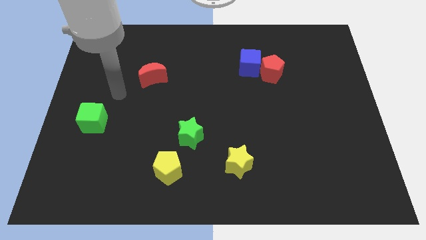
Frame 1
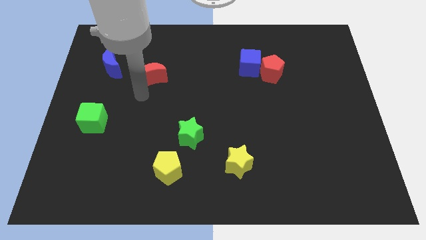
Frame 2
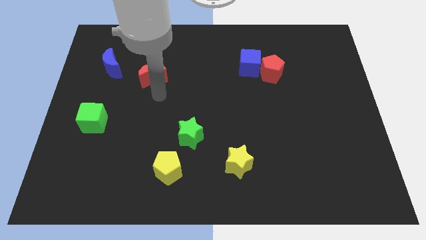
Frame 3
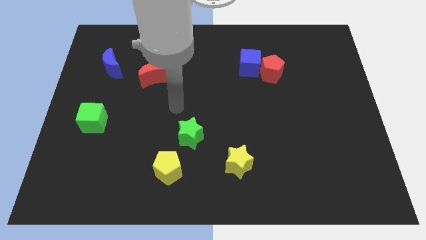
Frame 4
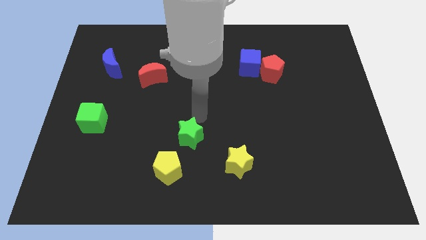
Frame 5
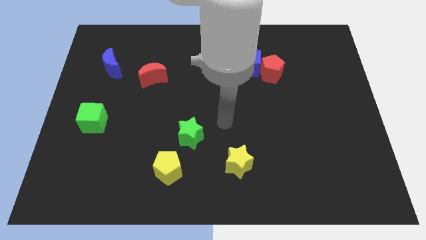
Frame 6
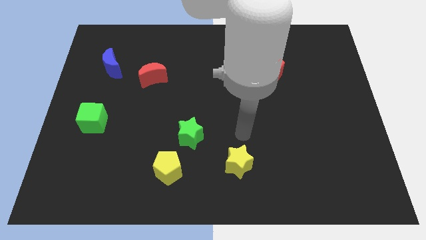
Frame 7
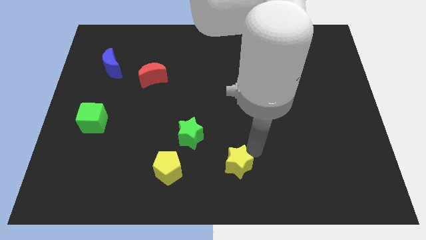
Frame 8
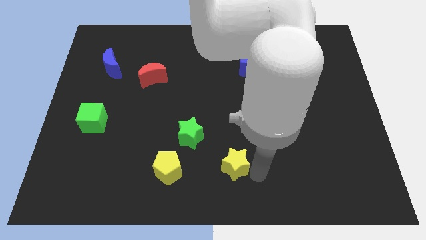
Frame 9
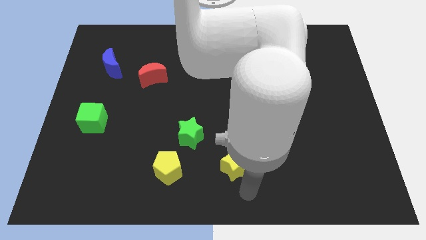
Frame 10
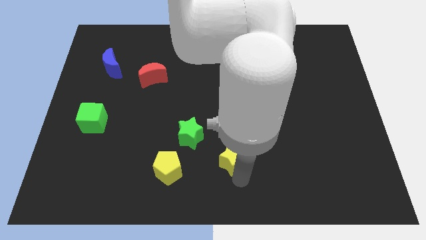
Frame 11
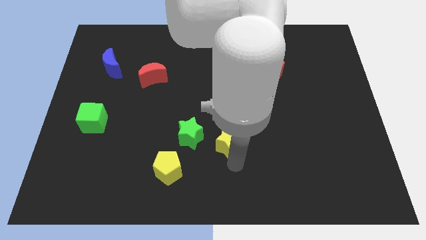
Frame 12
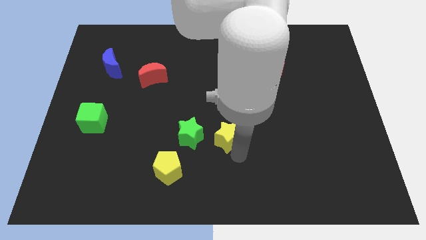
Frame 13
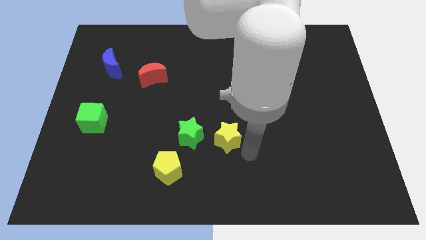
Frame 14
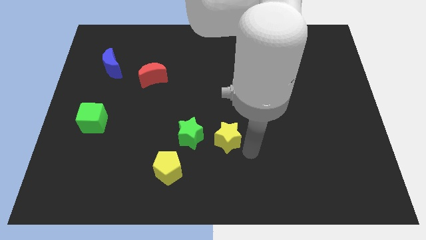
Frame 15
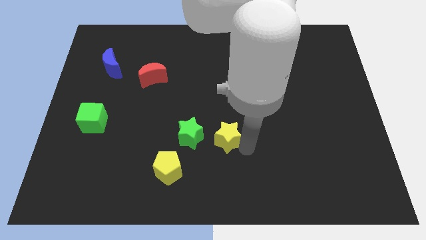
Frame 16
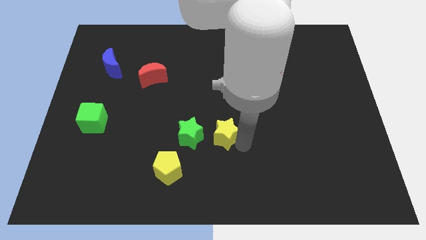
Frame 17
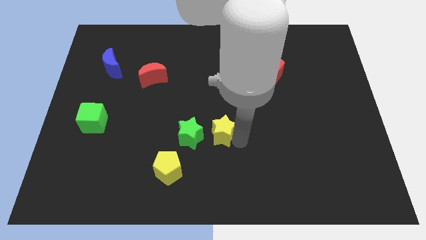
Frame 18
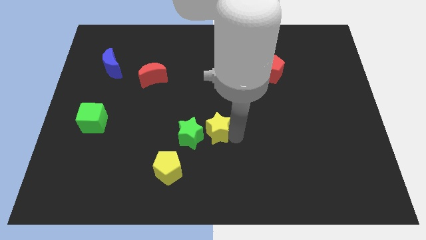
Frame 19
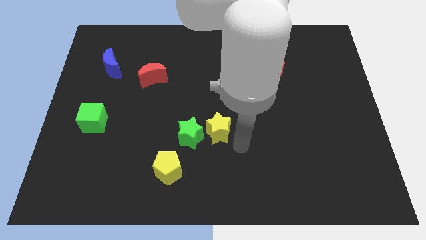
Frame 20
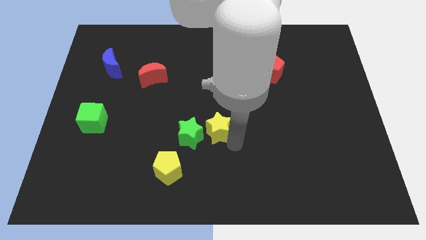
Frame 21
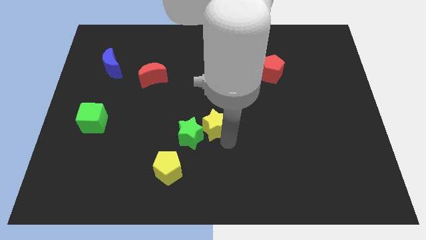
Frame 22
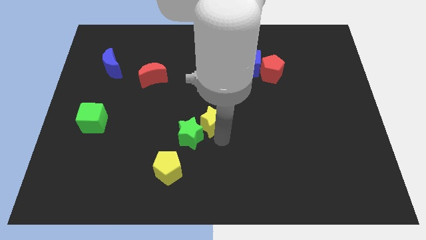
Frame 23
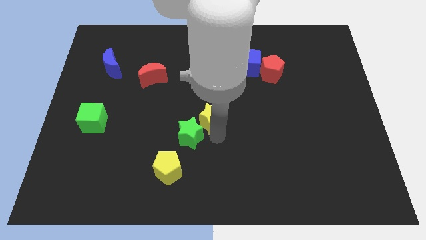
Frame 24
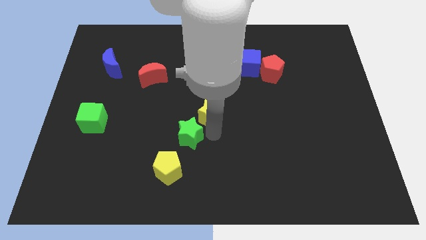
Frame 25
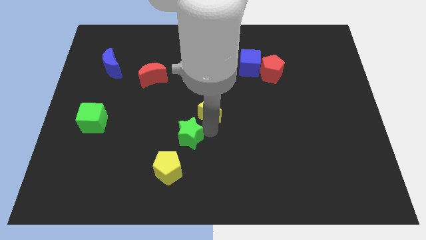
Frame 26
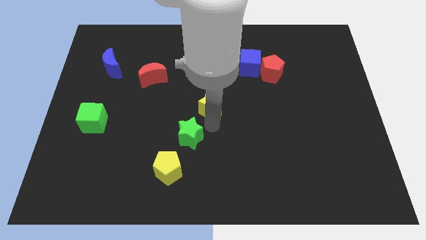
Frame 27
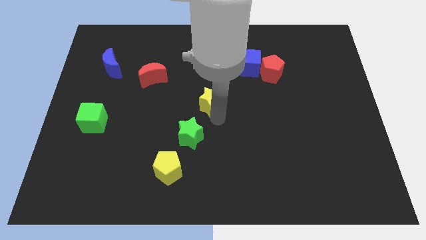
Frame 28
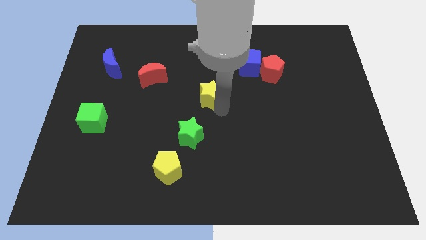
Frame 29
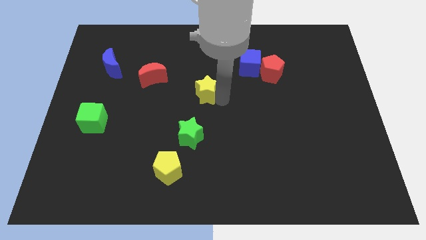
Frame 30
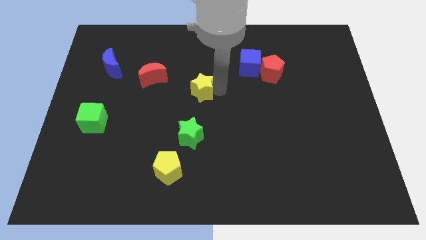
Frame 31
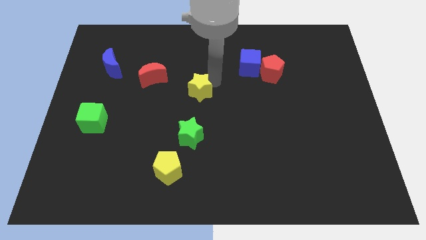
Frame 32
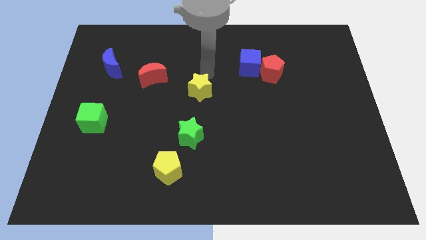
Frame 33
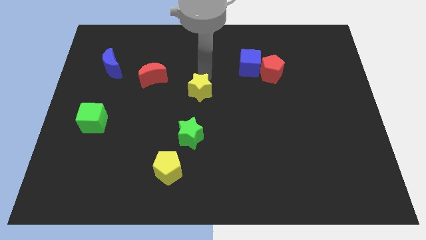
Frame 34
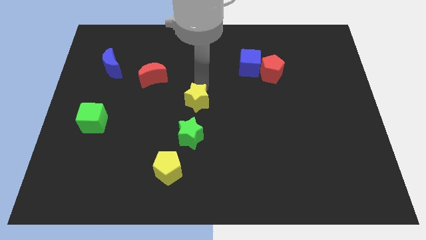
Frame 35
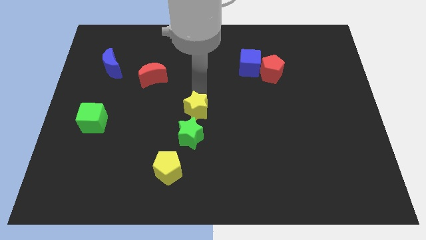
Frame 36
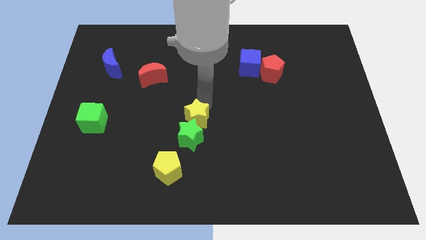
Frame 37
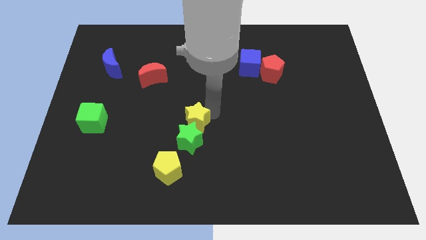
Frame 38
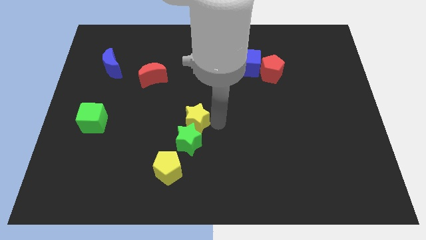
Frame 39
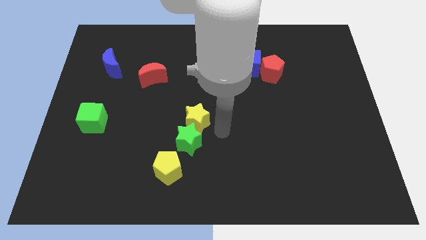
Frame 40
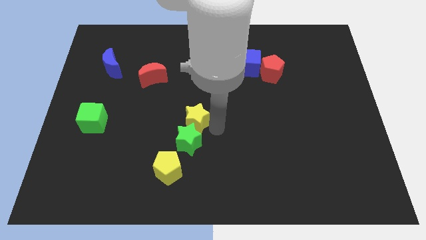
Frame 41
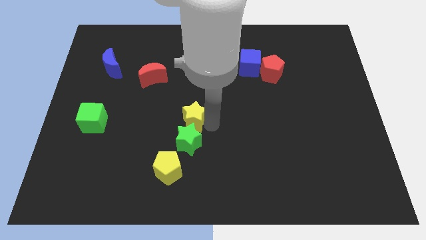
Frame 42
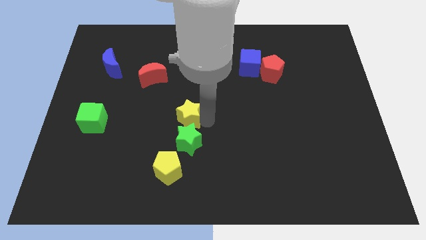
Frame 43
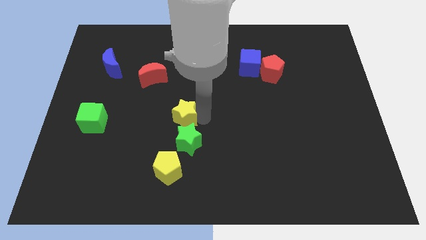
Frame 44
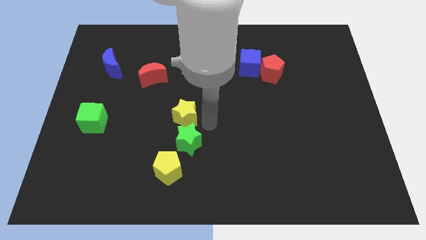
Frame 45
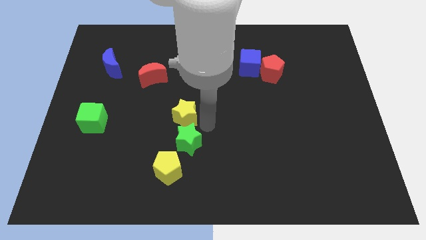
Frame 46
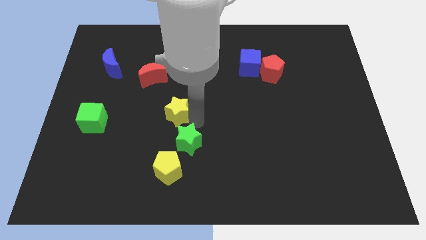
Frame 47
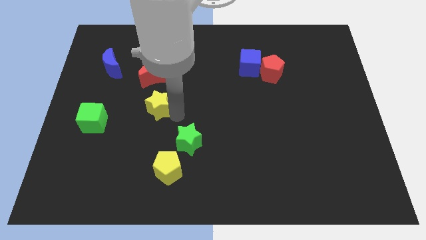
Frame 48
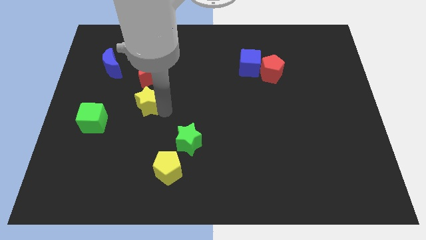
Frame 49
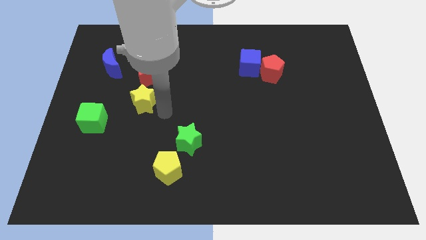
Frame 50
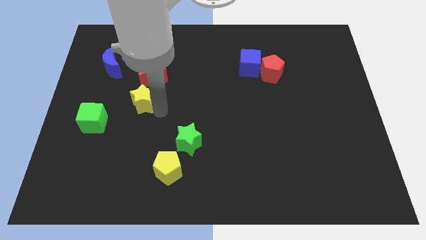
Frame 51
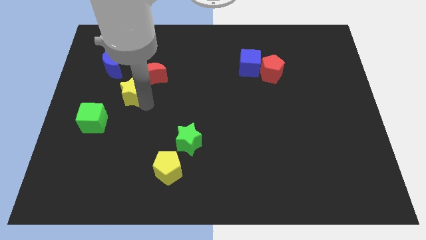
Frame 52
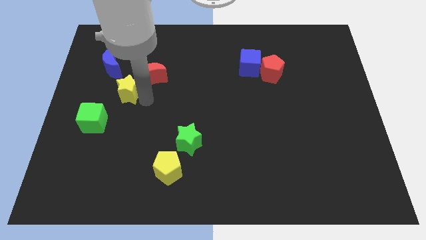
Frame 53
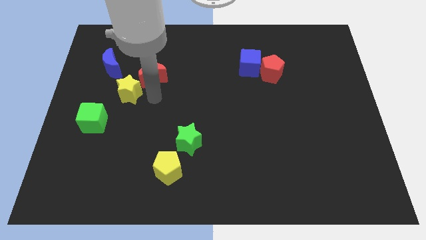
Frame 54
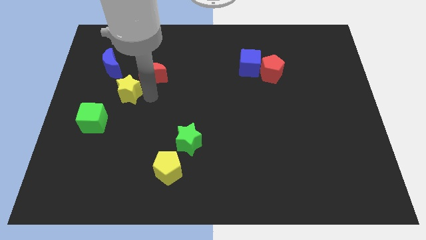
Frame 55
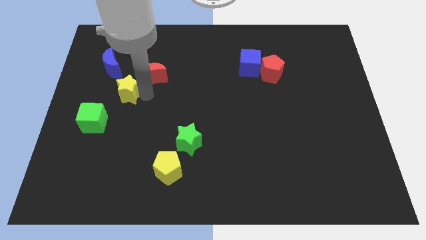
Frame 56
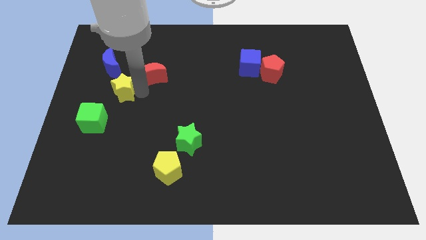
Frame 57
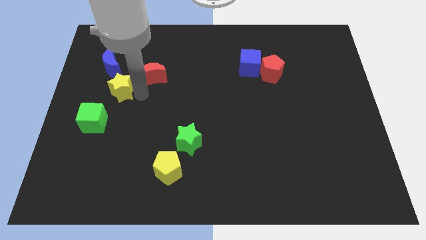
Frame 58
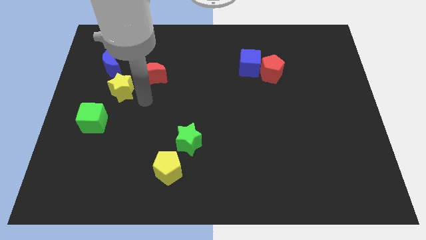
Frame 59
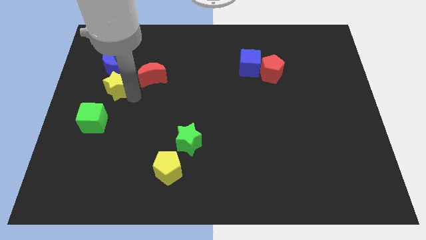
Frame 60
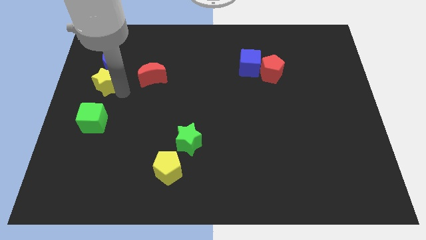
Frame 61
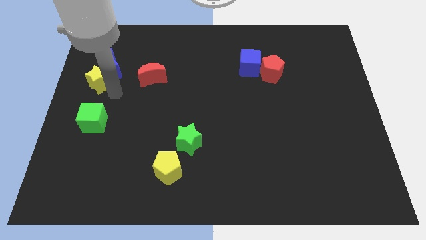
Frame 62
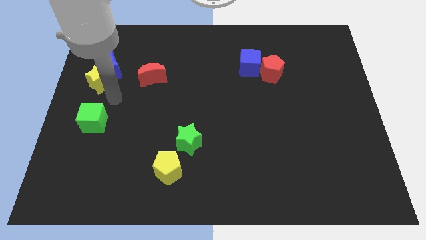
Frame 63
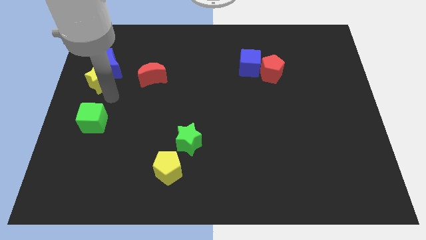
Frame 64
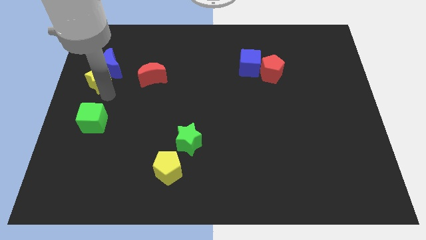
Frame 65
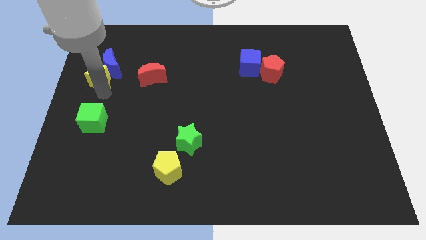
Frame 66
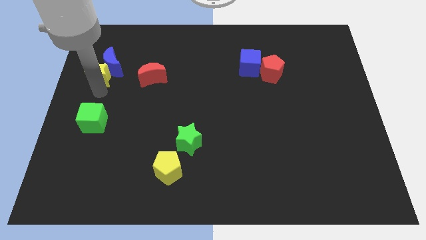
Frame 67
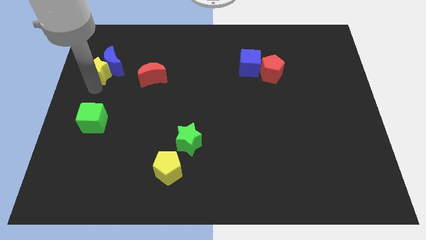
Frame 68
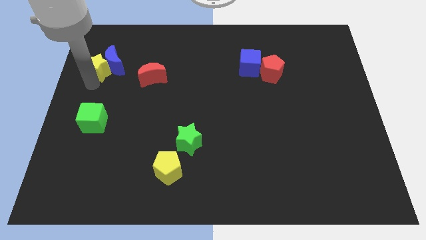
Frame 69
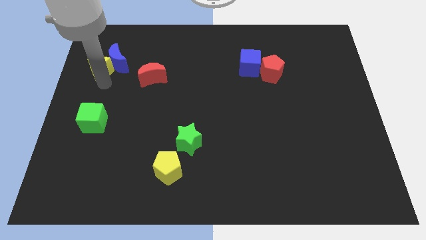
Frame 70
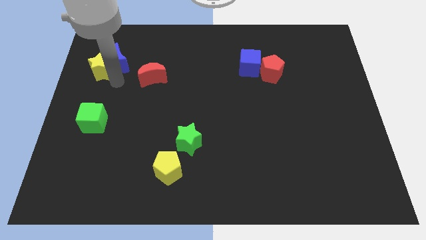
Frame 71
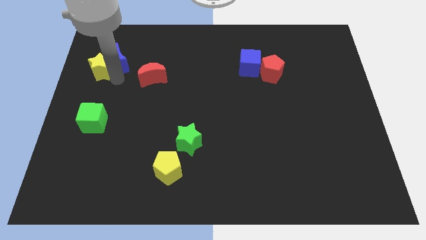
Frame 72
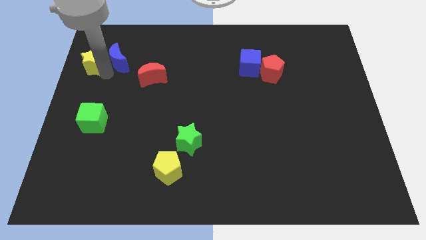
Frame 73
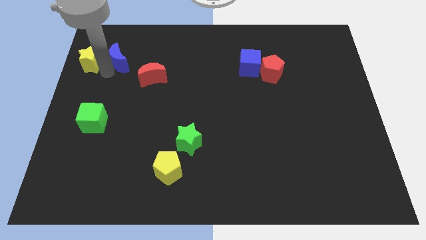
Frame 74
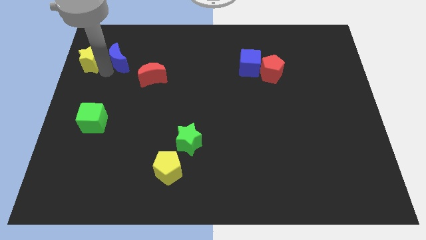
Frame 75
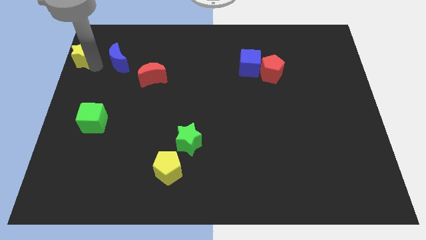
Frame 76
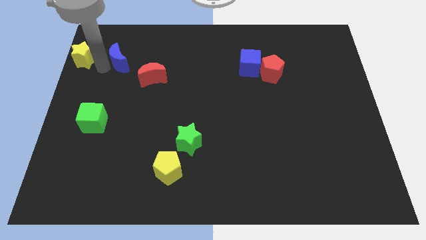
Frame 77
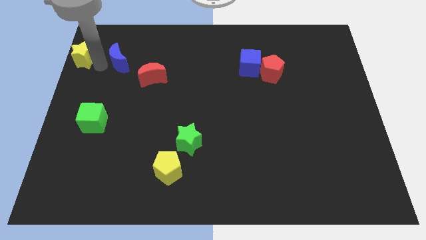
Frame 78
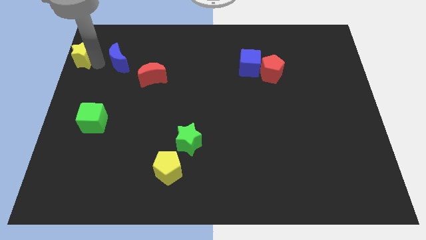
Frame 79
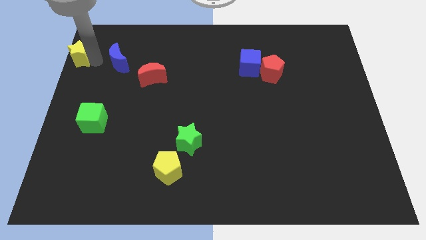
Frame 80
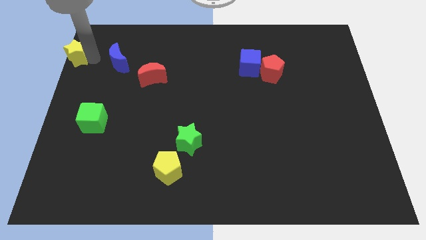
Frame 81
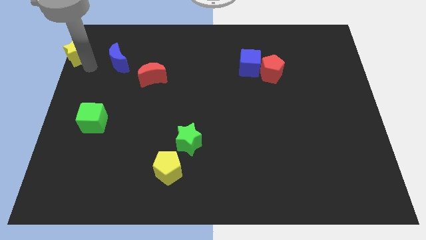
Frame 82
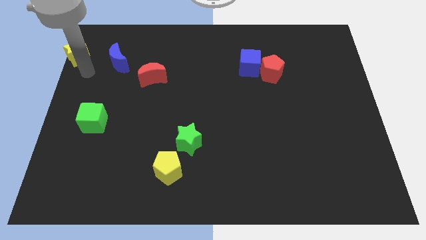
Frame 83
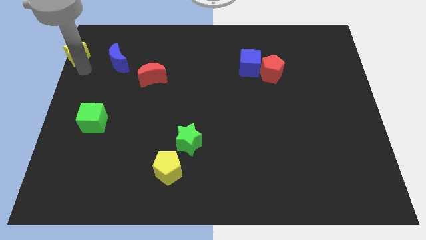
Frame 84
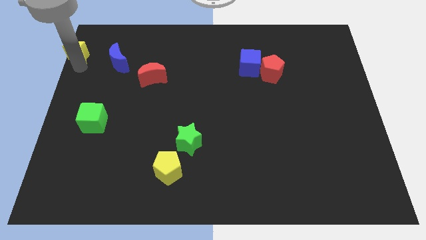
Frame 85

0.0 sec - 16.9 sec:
move the yellow star to the upper left corner
